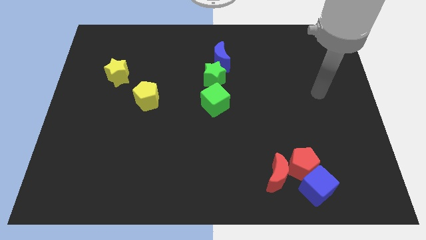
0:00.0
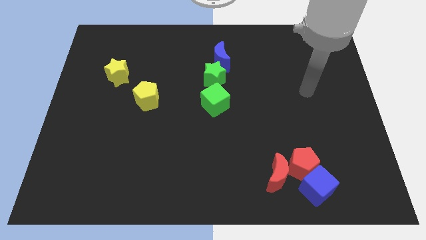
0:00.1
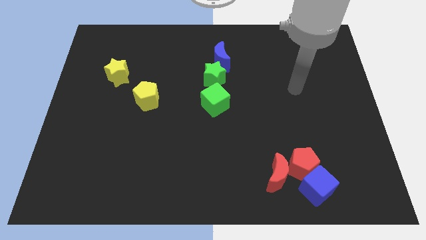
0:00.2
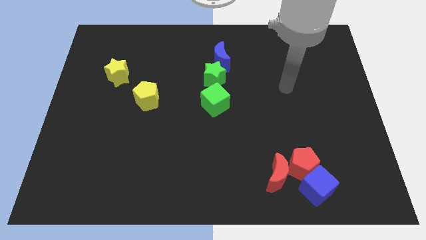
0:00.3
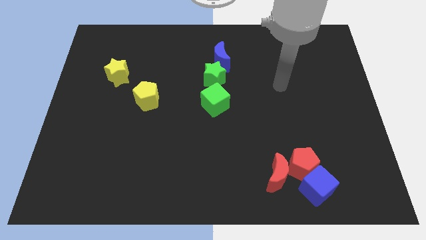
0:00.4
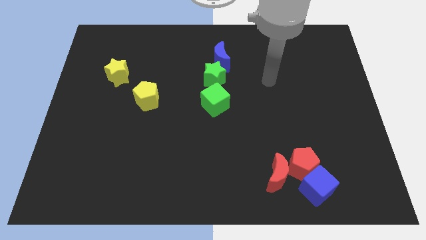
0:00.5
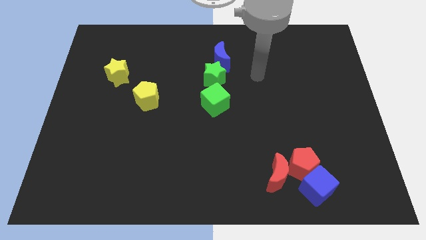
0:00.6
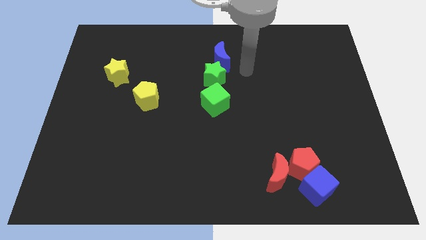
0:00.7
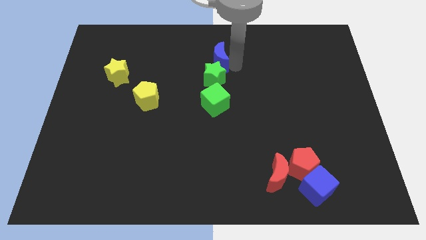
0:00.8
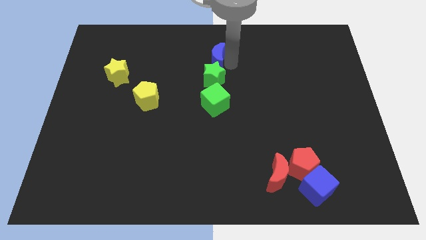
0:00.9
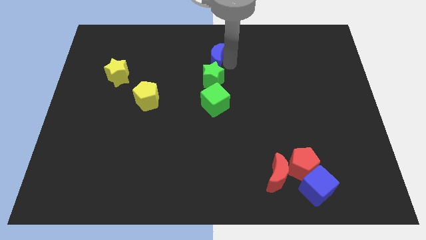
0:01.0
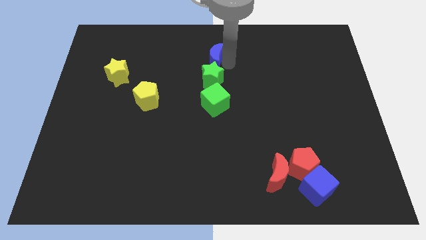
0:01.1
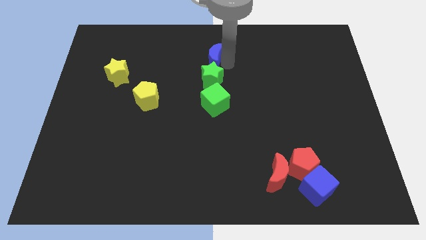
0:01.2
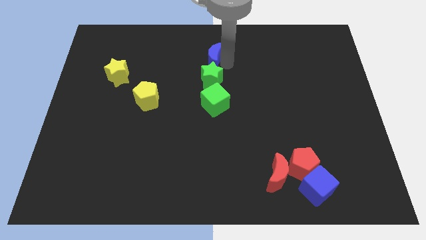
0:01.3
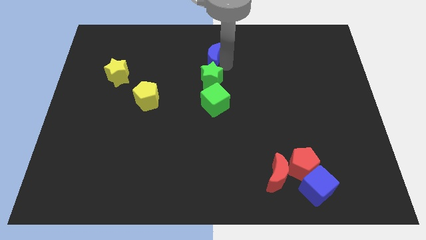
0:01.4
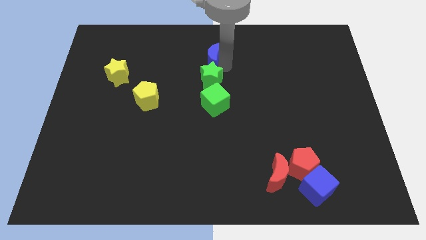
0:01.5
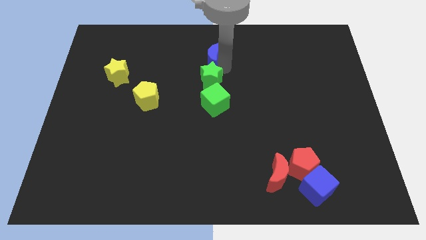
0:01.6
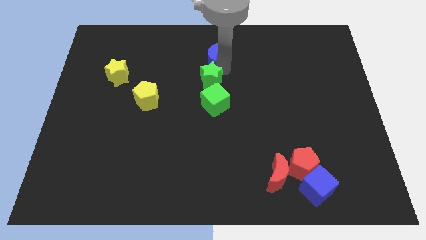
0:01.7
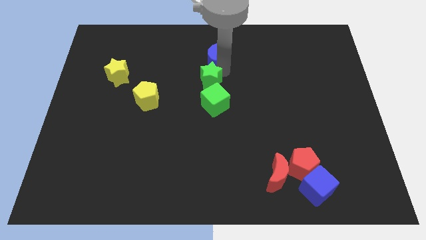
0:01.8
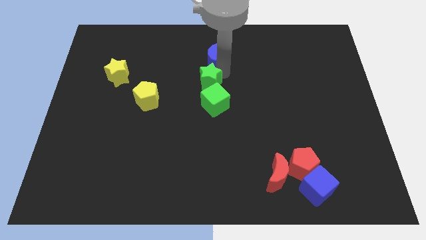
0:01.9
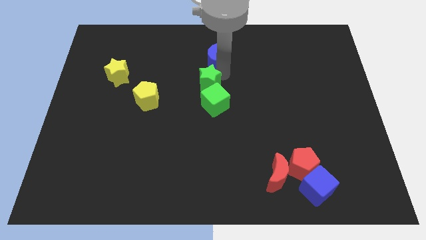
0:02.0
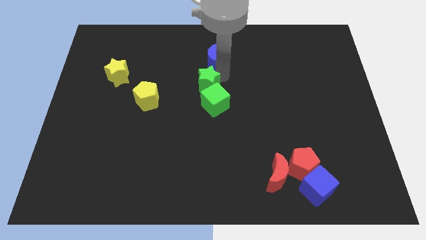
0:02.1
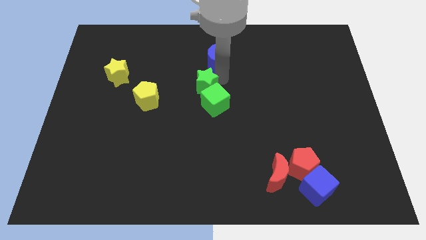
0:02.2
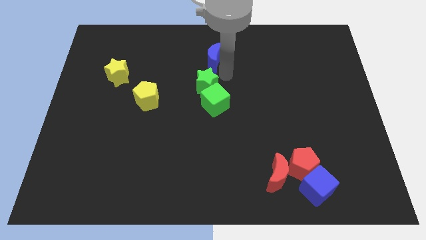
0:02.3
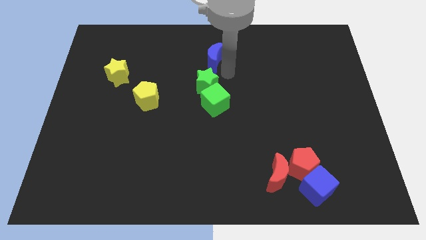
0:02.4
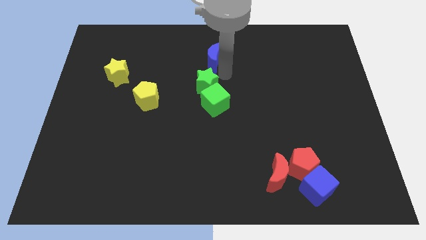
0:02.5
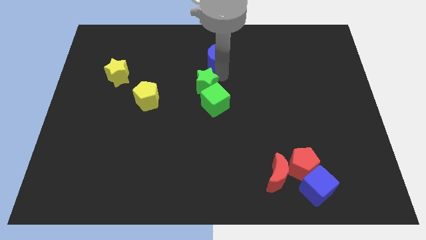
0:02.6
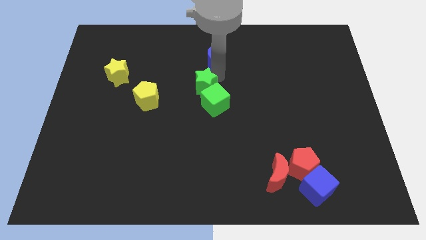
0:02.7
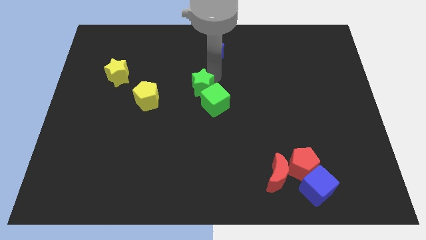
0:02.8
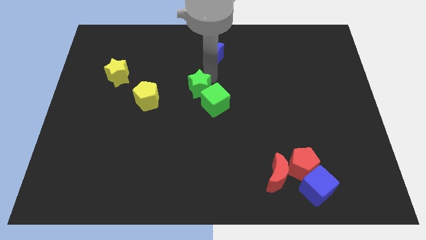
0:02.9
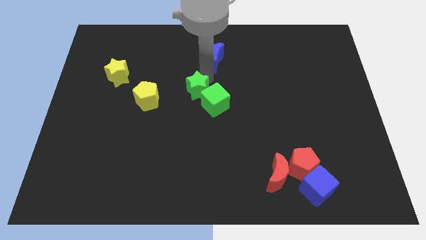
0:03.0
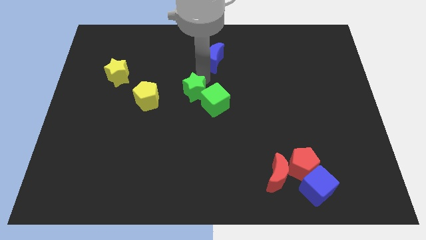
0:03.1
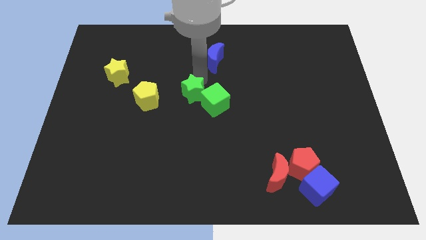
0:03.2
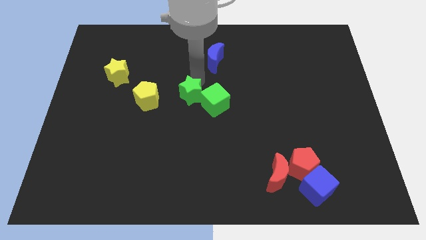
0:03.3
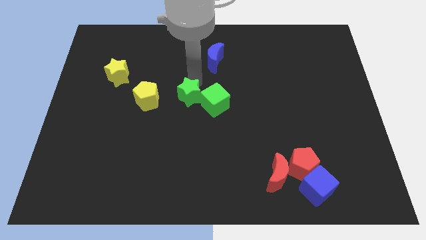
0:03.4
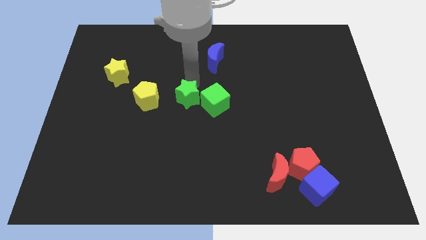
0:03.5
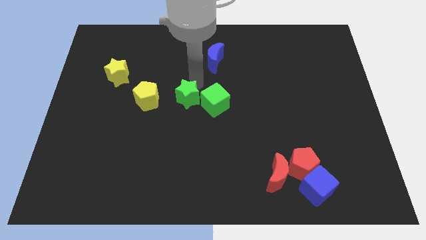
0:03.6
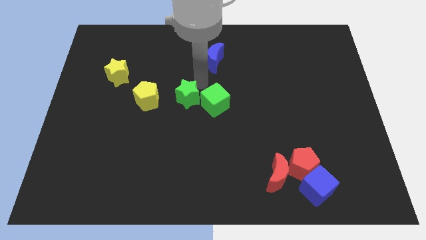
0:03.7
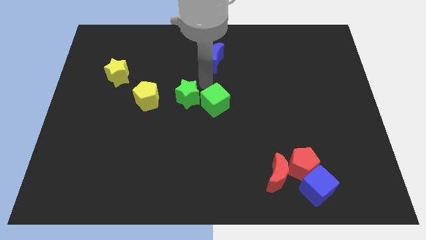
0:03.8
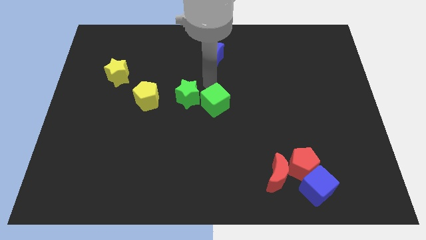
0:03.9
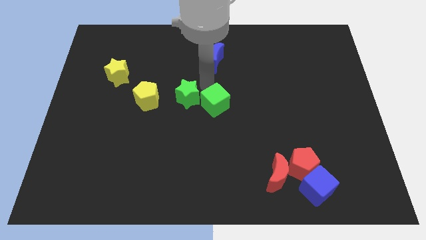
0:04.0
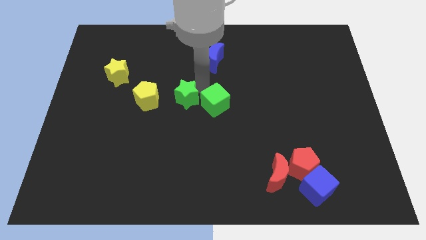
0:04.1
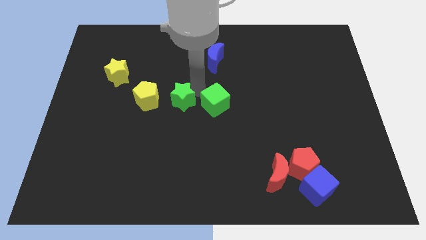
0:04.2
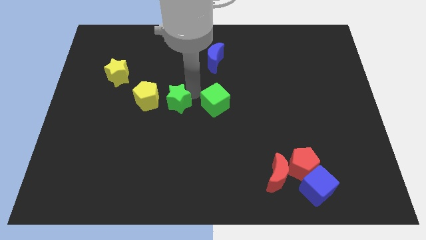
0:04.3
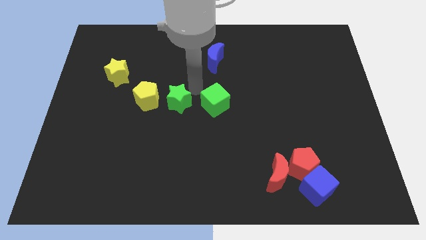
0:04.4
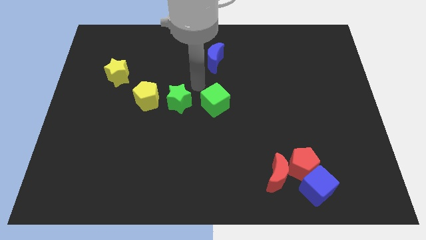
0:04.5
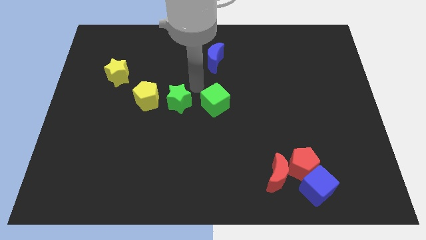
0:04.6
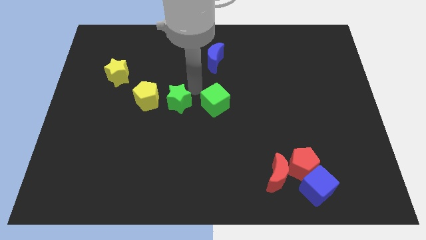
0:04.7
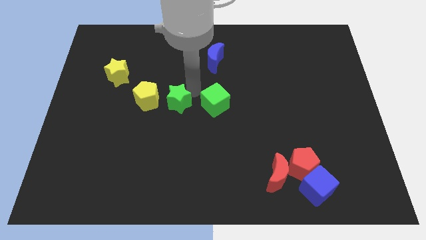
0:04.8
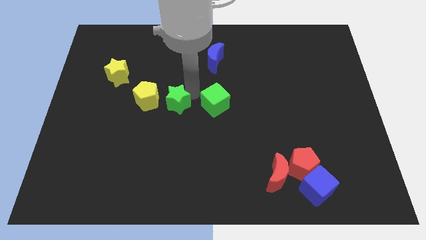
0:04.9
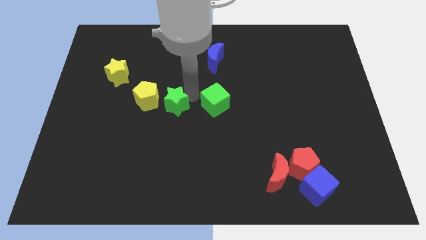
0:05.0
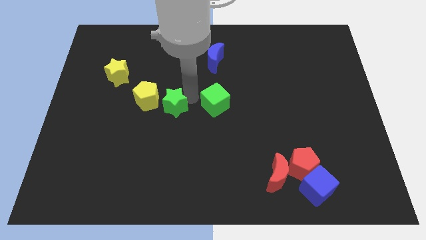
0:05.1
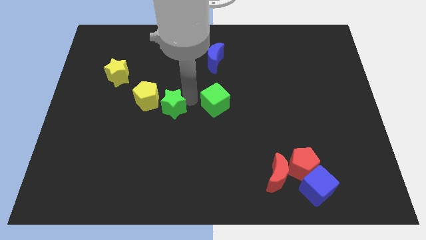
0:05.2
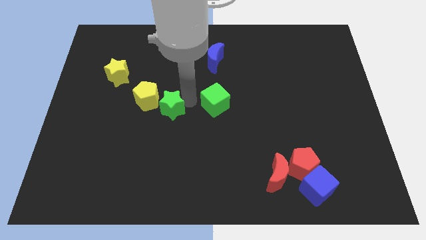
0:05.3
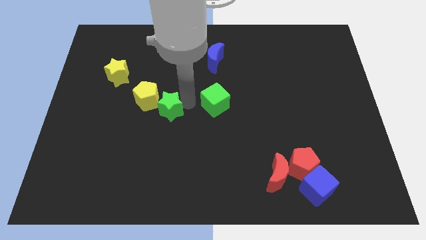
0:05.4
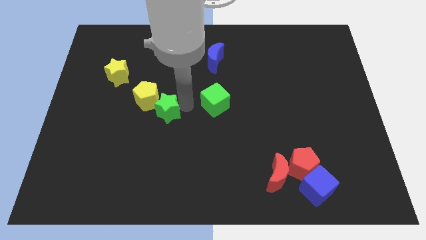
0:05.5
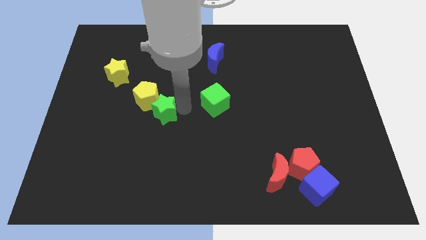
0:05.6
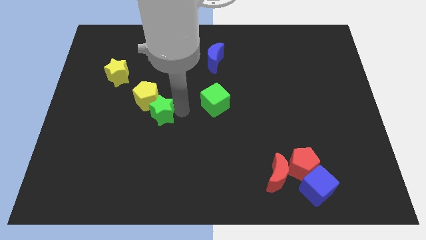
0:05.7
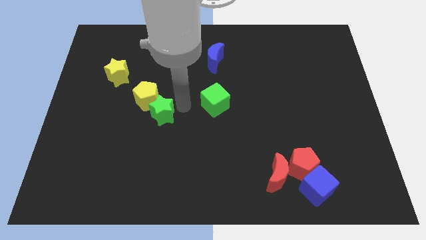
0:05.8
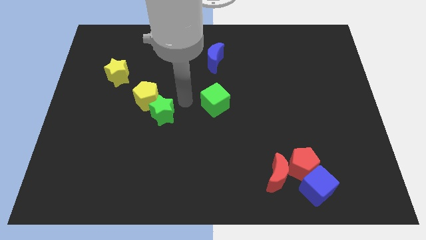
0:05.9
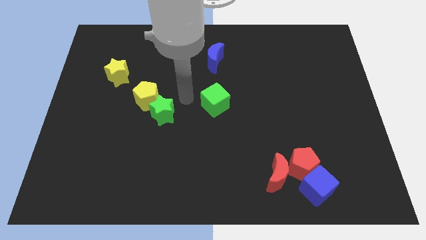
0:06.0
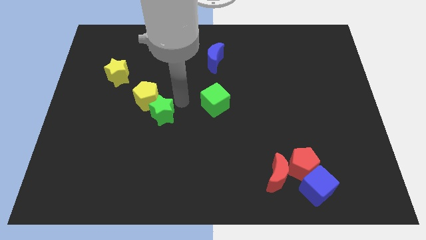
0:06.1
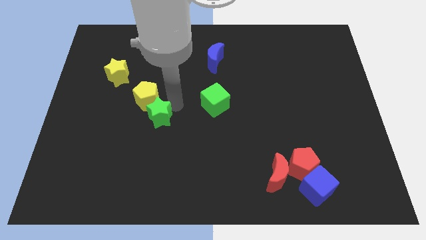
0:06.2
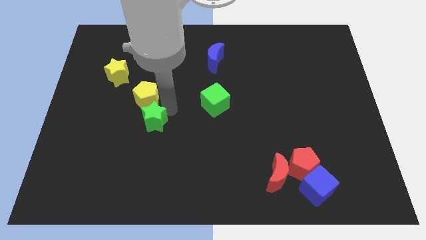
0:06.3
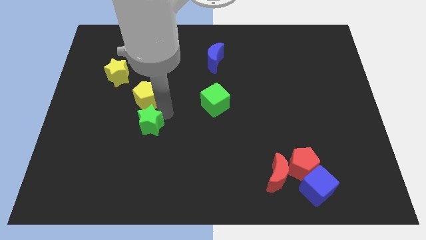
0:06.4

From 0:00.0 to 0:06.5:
move the green star down and then left

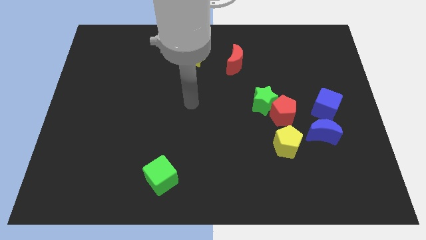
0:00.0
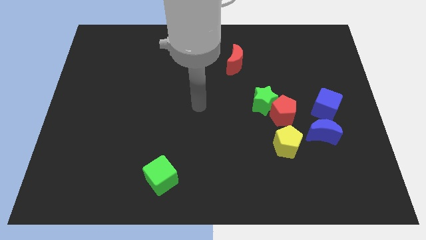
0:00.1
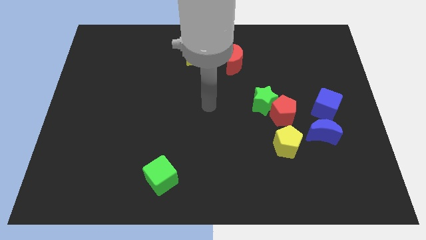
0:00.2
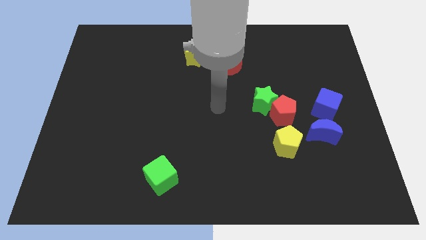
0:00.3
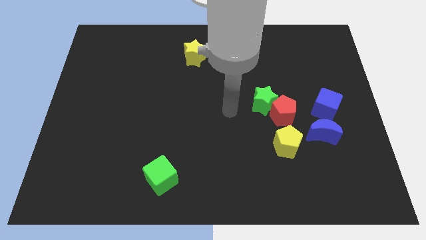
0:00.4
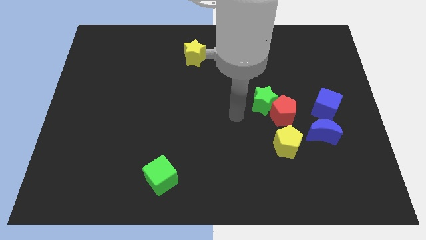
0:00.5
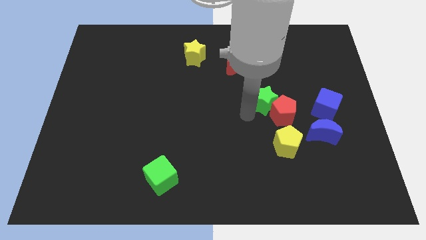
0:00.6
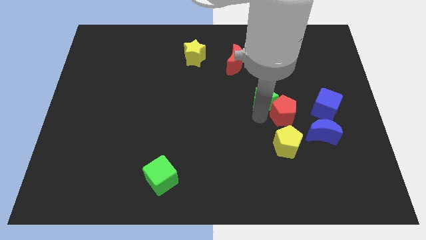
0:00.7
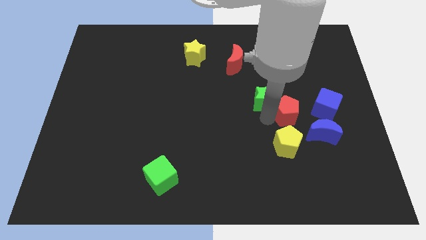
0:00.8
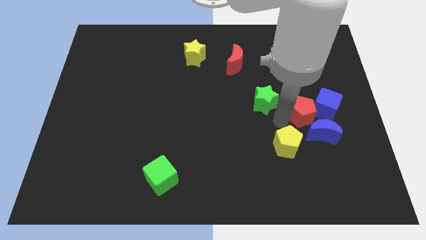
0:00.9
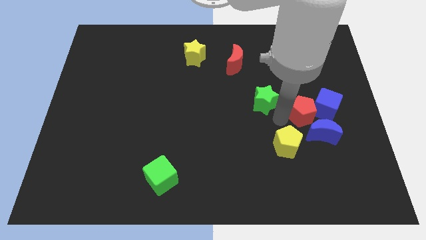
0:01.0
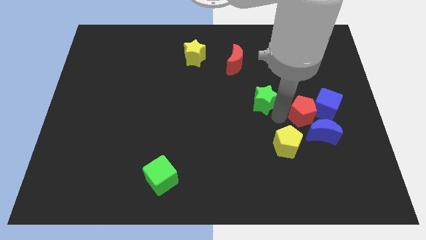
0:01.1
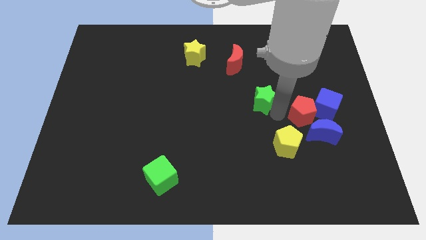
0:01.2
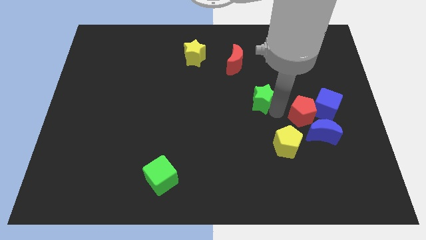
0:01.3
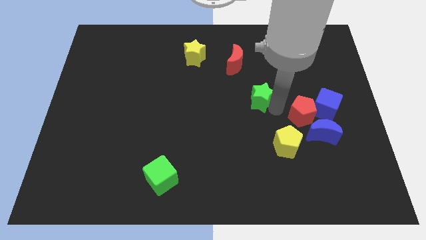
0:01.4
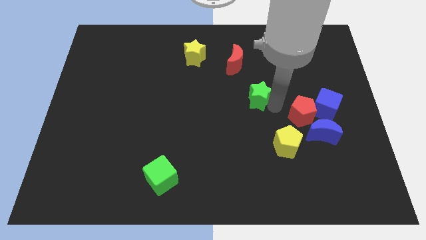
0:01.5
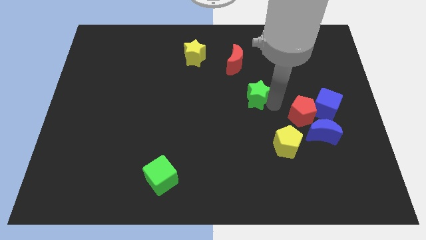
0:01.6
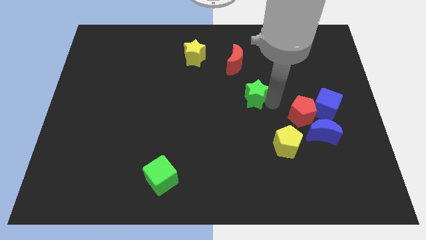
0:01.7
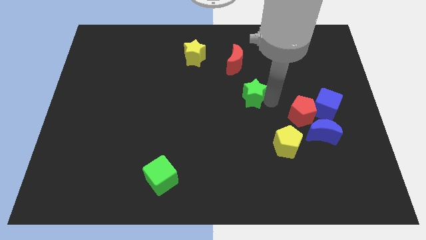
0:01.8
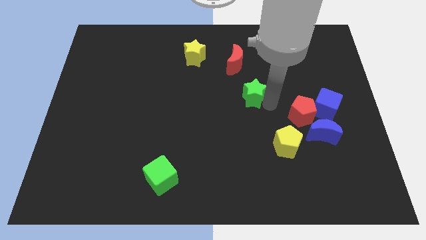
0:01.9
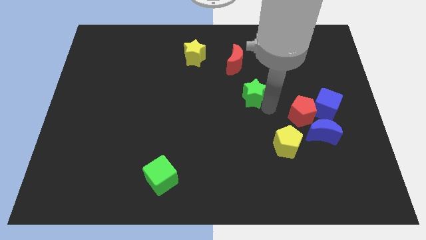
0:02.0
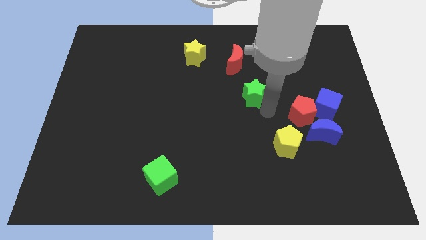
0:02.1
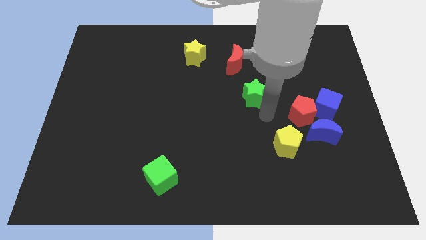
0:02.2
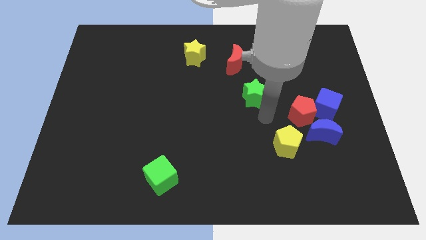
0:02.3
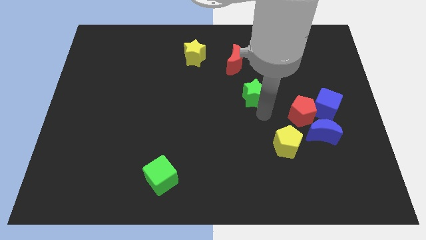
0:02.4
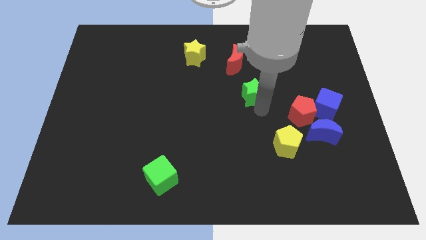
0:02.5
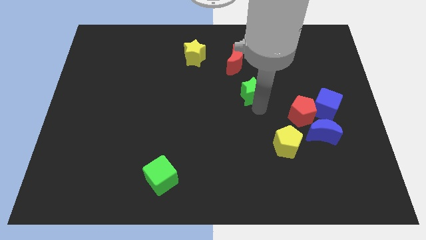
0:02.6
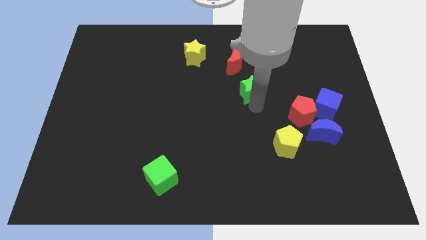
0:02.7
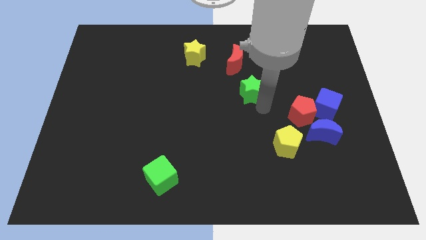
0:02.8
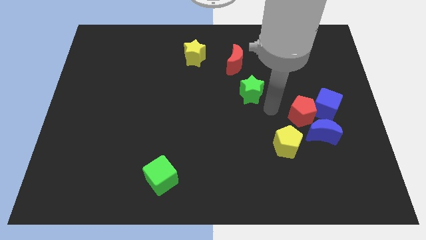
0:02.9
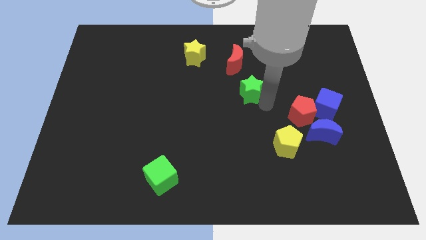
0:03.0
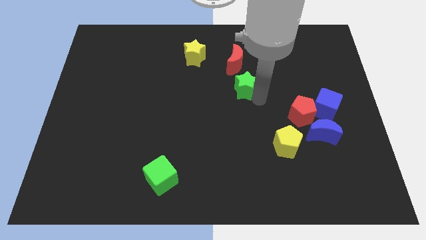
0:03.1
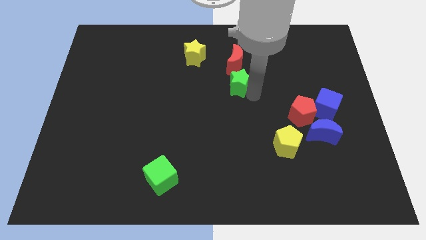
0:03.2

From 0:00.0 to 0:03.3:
slide the green star upwards and left diagonally a little
